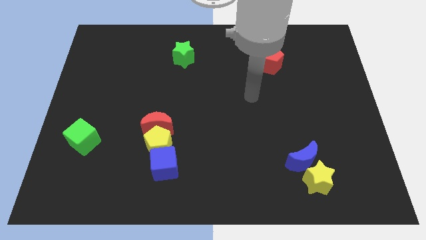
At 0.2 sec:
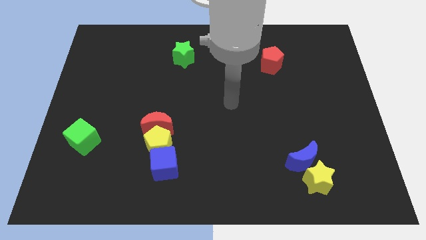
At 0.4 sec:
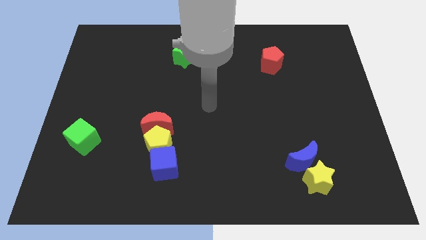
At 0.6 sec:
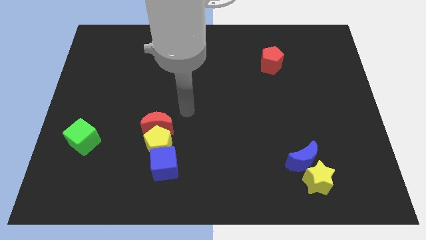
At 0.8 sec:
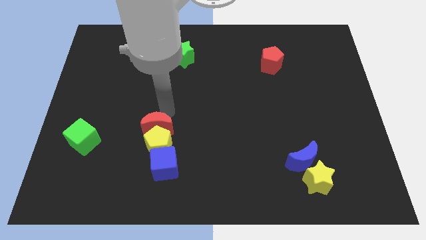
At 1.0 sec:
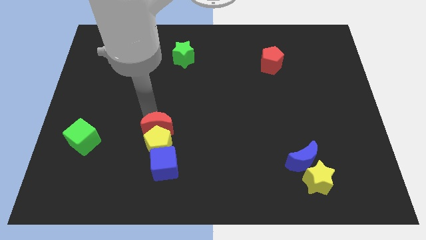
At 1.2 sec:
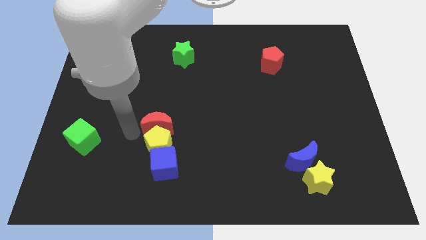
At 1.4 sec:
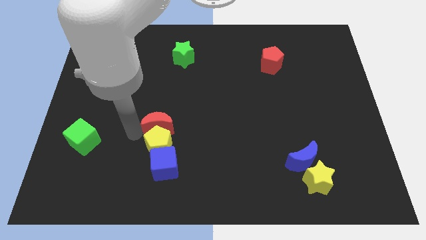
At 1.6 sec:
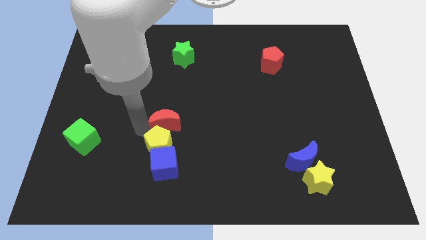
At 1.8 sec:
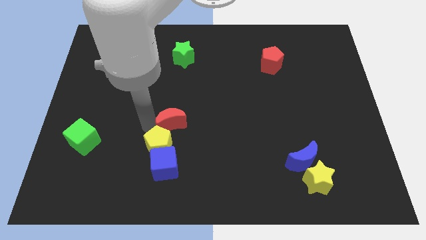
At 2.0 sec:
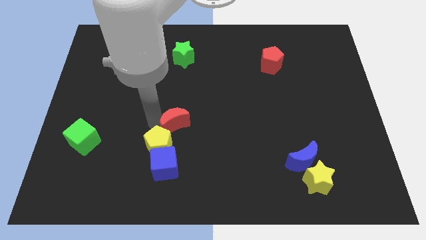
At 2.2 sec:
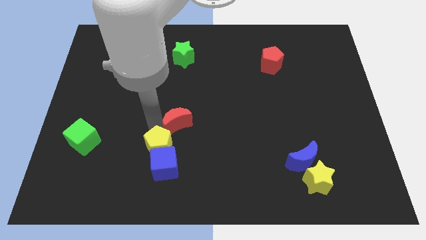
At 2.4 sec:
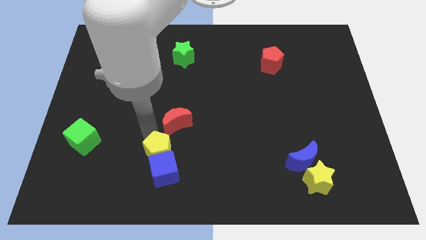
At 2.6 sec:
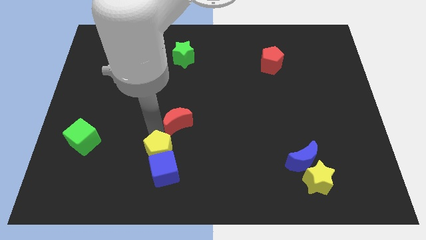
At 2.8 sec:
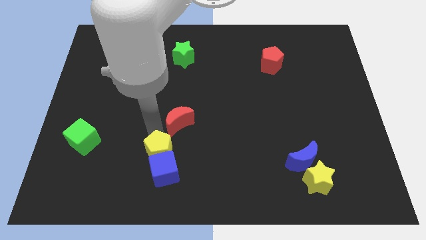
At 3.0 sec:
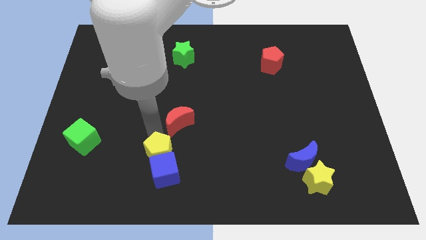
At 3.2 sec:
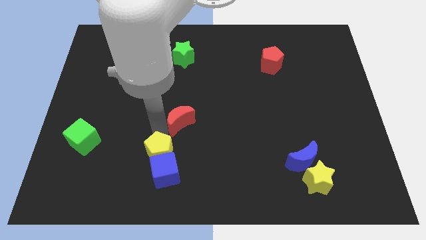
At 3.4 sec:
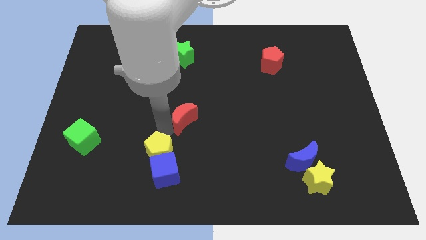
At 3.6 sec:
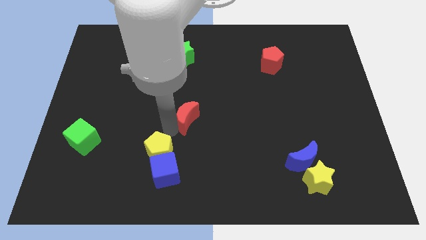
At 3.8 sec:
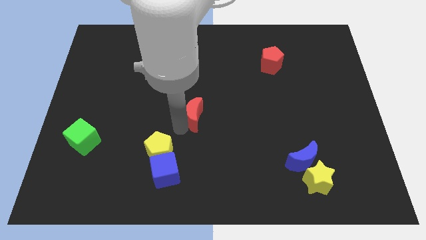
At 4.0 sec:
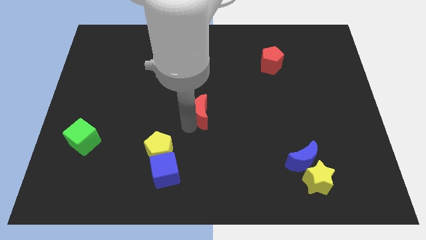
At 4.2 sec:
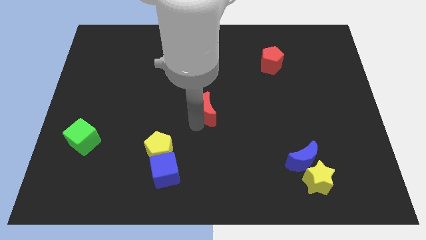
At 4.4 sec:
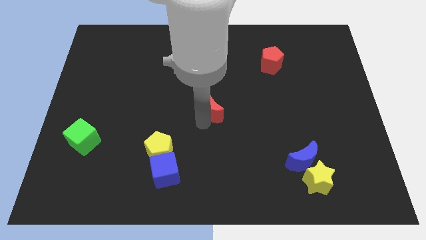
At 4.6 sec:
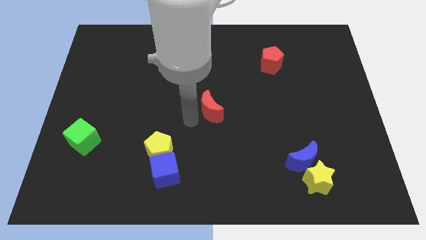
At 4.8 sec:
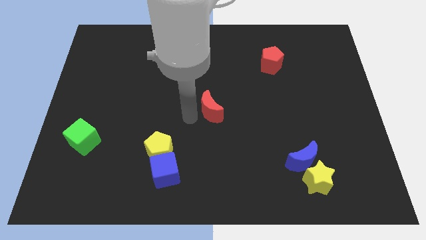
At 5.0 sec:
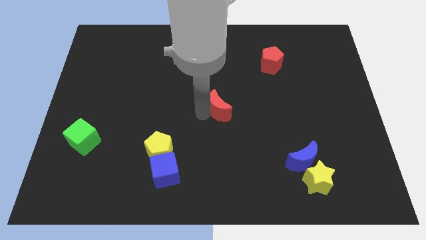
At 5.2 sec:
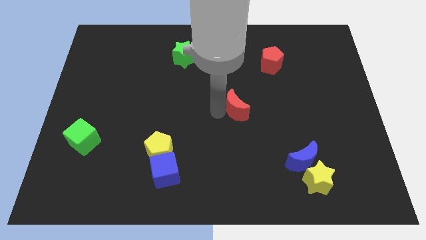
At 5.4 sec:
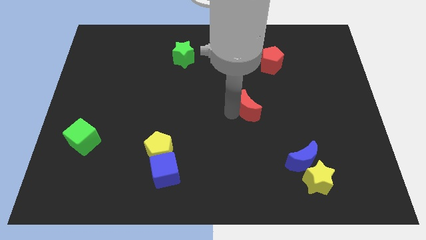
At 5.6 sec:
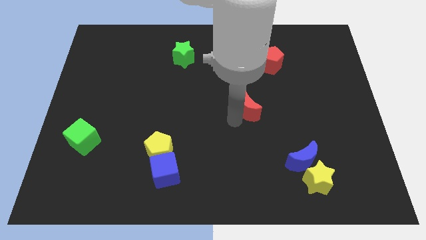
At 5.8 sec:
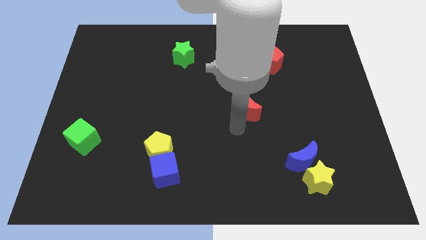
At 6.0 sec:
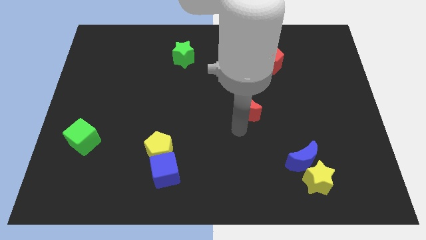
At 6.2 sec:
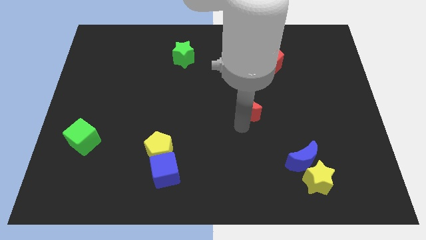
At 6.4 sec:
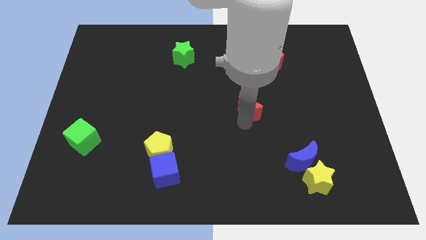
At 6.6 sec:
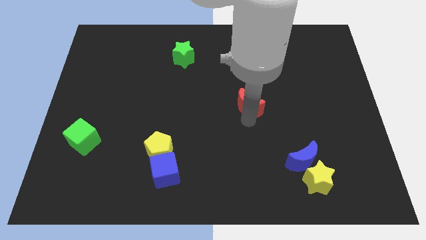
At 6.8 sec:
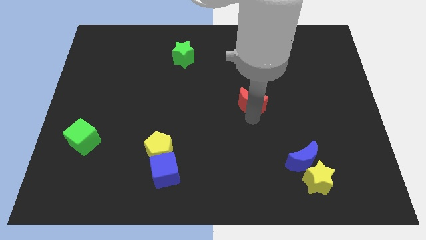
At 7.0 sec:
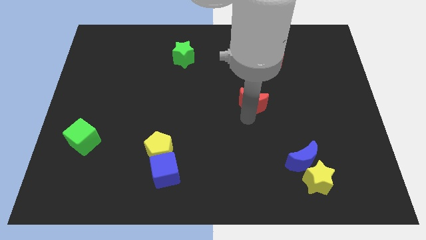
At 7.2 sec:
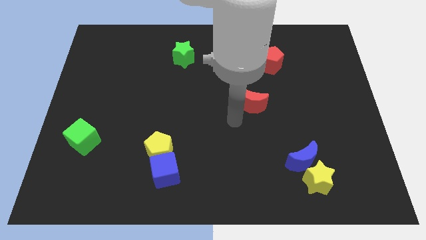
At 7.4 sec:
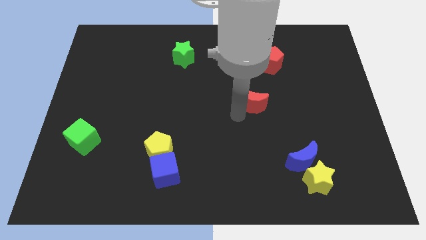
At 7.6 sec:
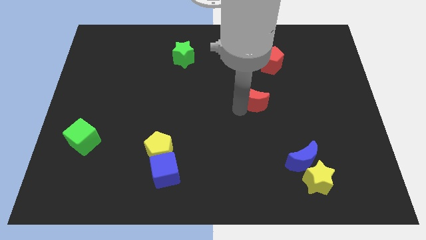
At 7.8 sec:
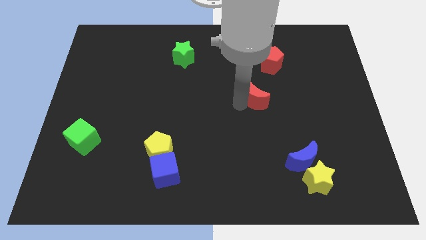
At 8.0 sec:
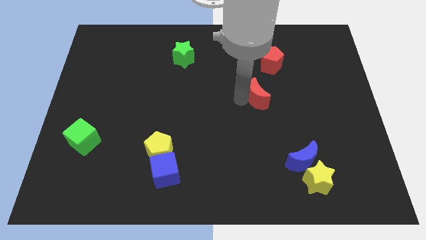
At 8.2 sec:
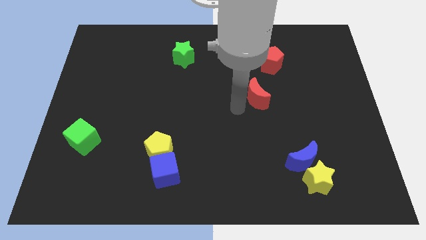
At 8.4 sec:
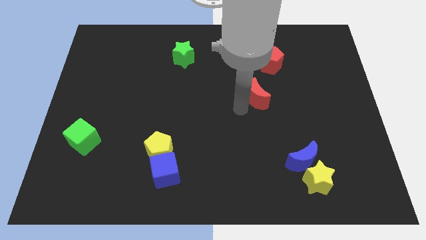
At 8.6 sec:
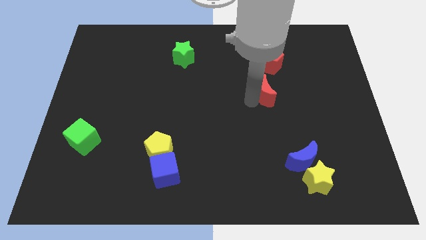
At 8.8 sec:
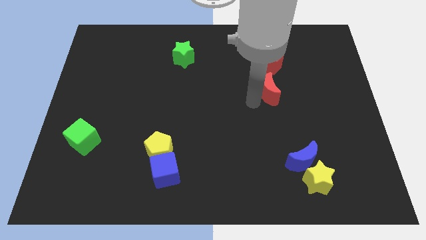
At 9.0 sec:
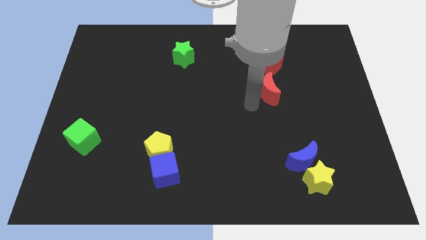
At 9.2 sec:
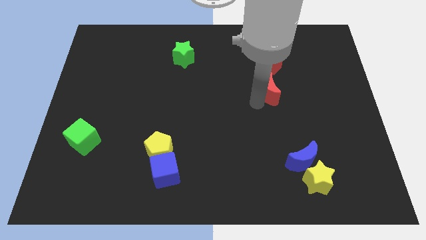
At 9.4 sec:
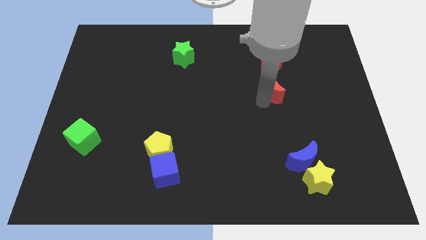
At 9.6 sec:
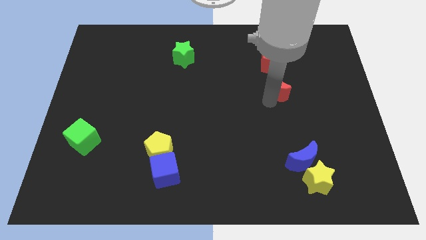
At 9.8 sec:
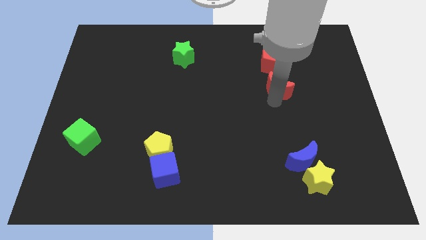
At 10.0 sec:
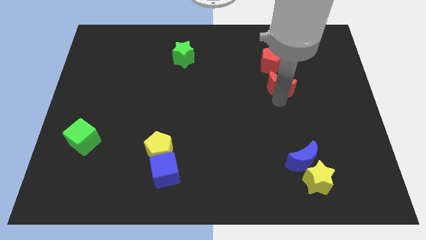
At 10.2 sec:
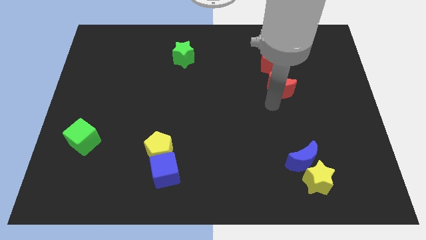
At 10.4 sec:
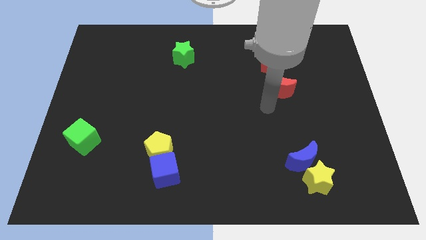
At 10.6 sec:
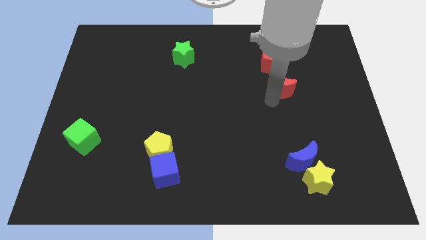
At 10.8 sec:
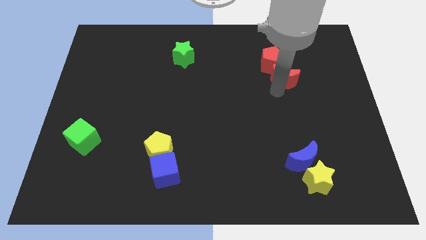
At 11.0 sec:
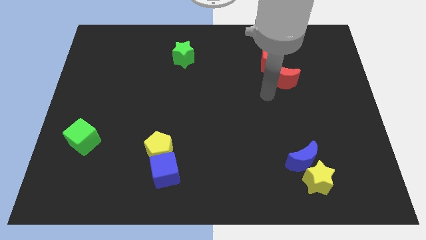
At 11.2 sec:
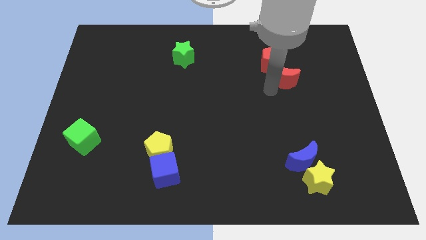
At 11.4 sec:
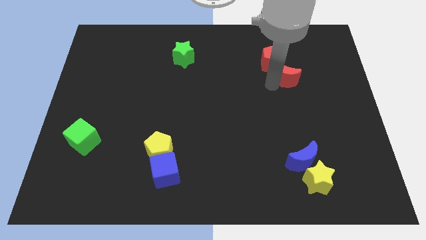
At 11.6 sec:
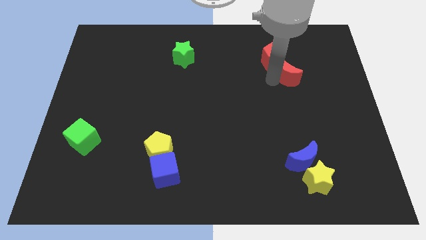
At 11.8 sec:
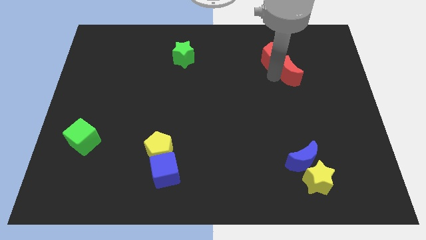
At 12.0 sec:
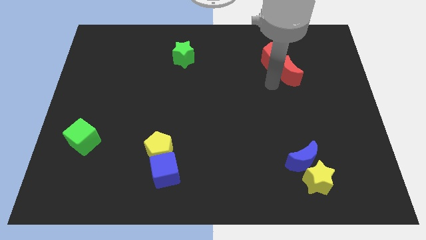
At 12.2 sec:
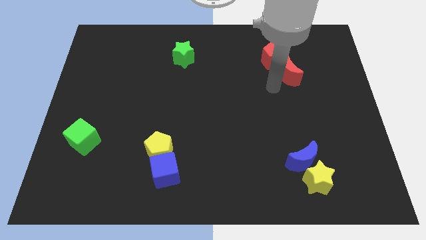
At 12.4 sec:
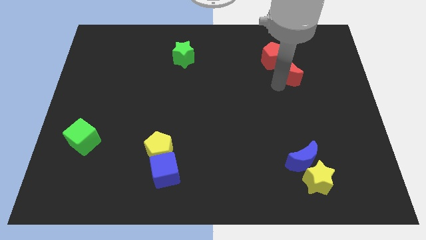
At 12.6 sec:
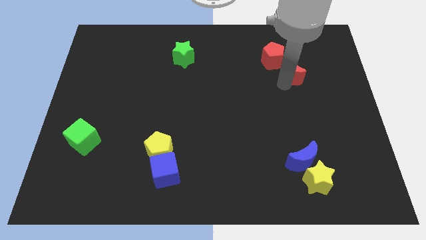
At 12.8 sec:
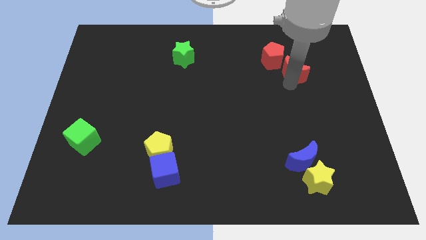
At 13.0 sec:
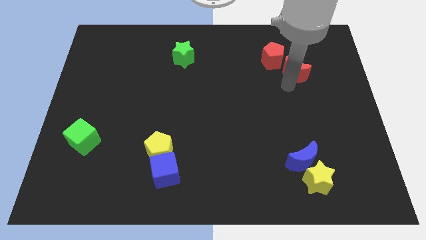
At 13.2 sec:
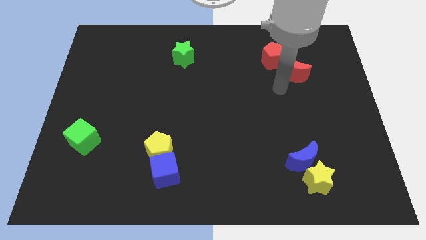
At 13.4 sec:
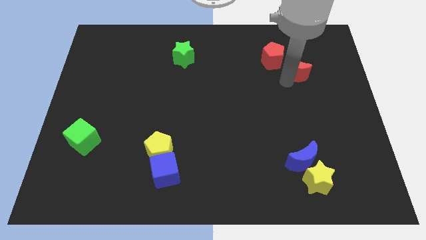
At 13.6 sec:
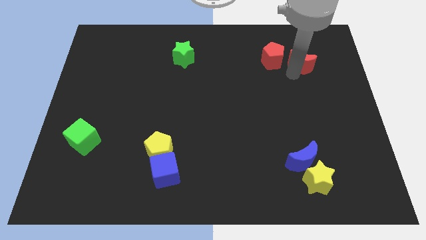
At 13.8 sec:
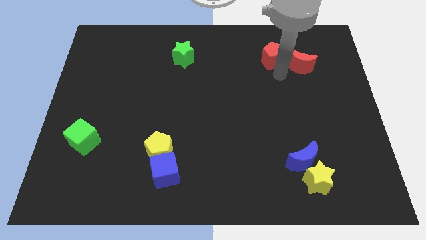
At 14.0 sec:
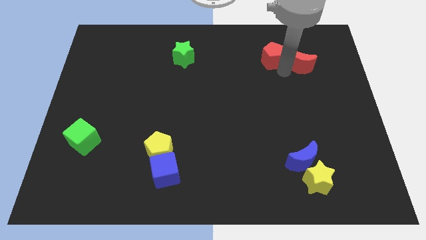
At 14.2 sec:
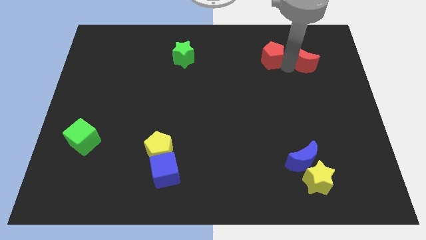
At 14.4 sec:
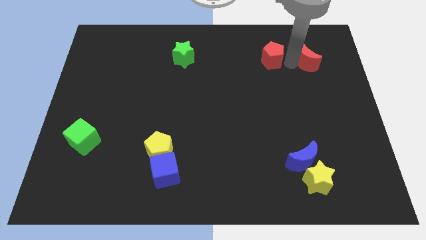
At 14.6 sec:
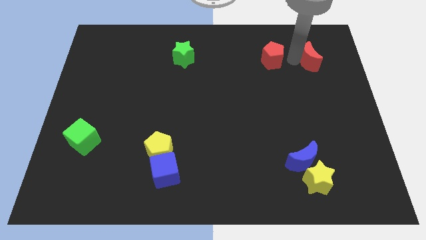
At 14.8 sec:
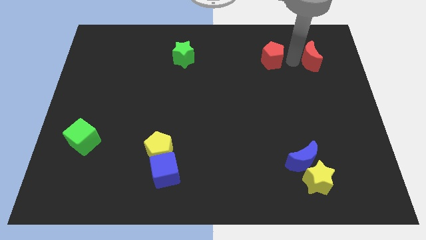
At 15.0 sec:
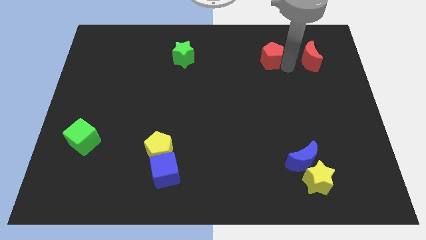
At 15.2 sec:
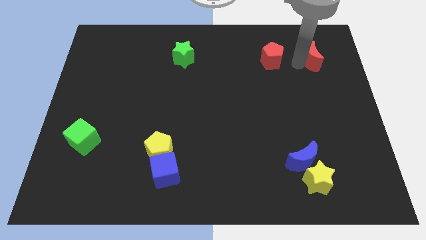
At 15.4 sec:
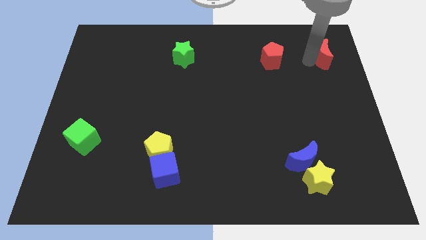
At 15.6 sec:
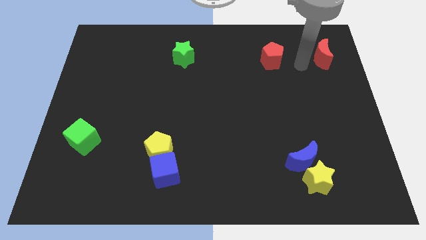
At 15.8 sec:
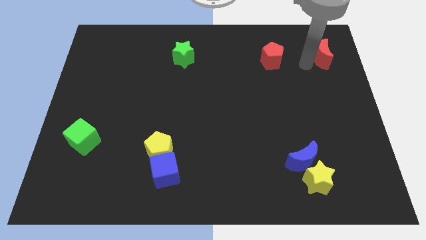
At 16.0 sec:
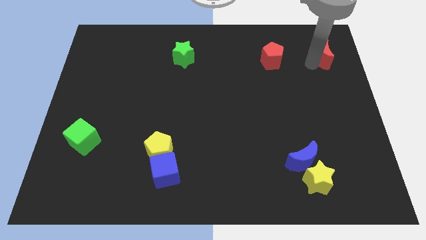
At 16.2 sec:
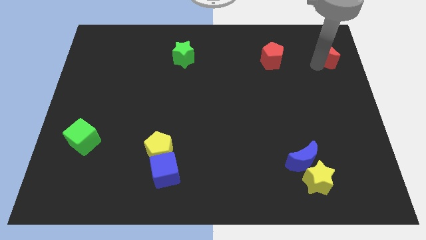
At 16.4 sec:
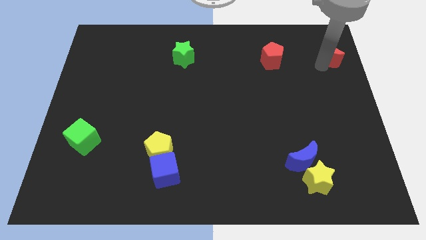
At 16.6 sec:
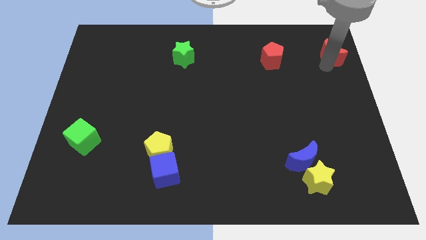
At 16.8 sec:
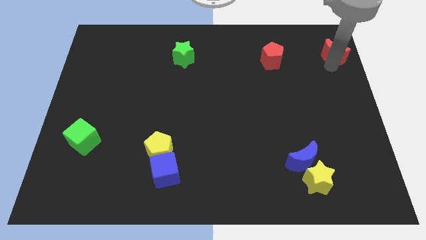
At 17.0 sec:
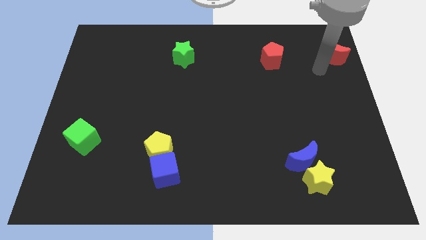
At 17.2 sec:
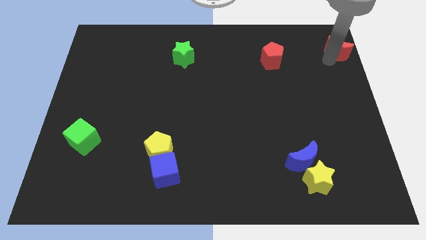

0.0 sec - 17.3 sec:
put the red moon to the top right of the board
